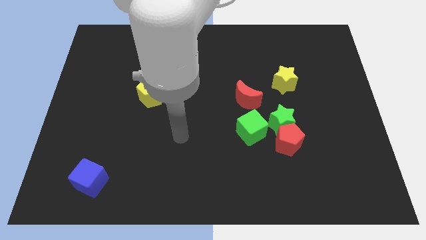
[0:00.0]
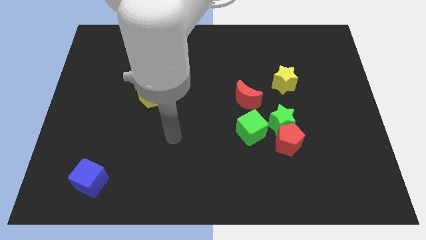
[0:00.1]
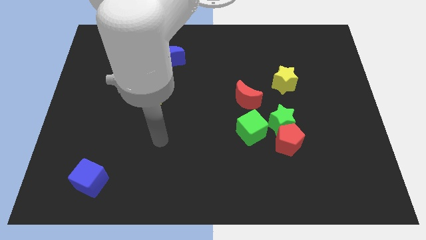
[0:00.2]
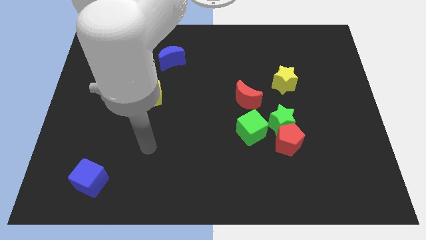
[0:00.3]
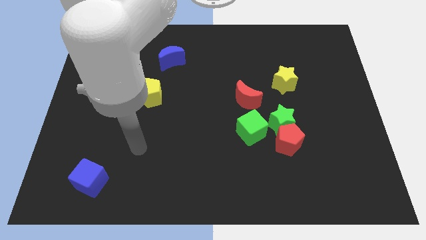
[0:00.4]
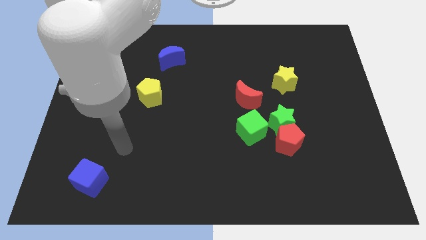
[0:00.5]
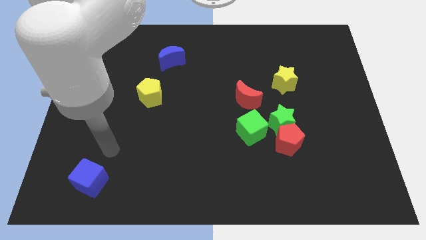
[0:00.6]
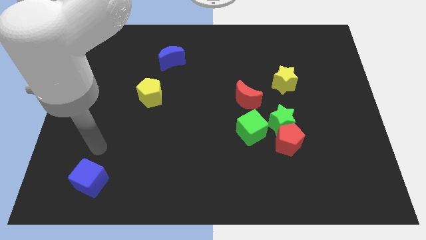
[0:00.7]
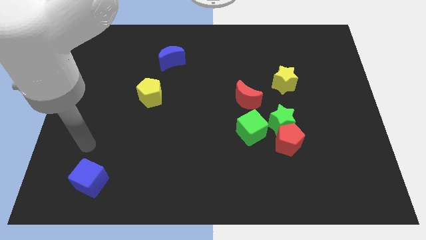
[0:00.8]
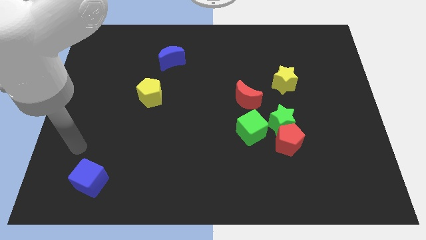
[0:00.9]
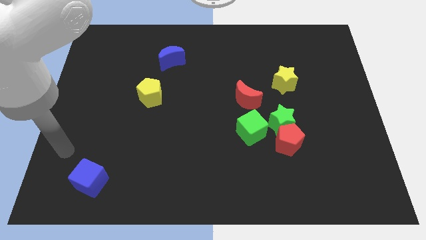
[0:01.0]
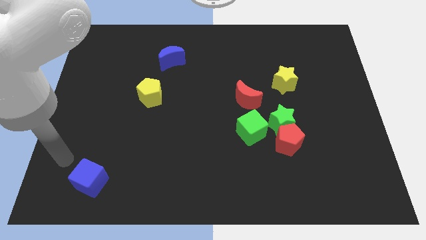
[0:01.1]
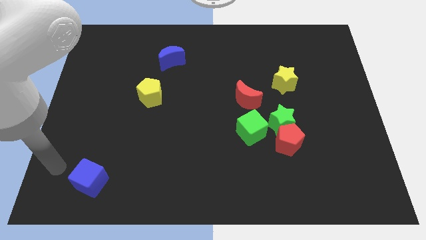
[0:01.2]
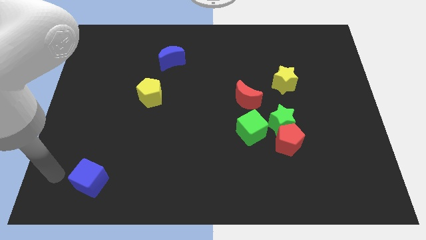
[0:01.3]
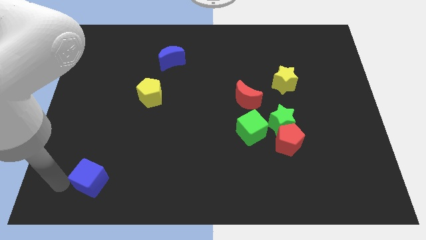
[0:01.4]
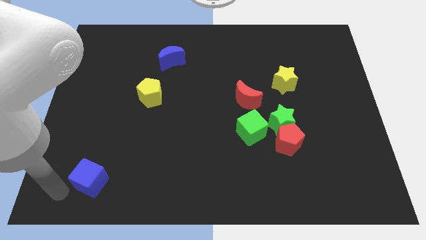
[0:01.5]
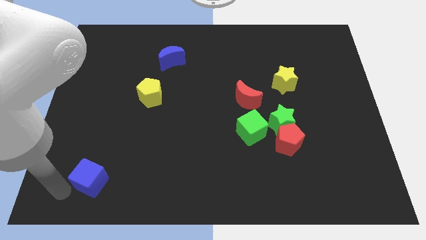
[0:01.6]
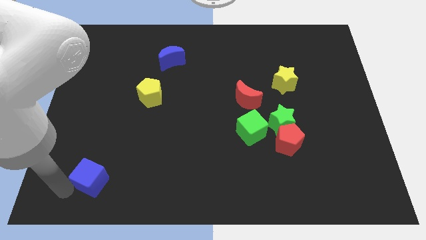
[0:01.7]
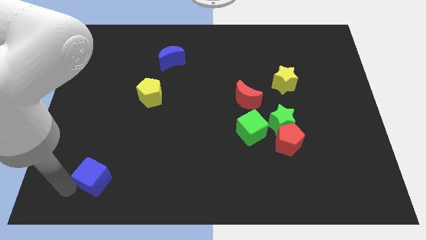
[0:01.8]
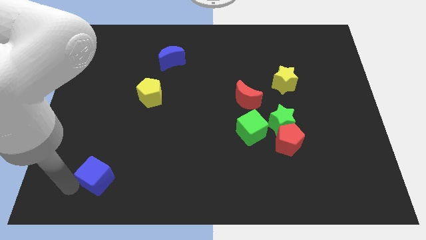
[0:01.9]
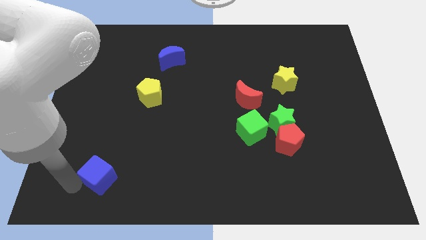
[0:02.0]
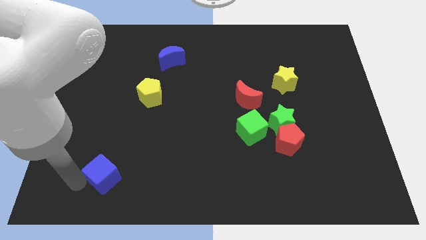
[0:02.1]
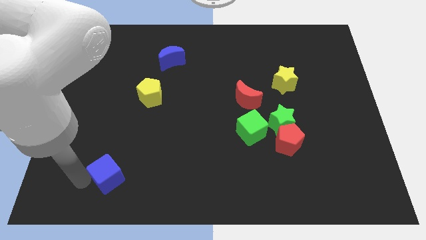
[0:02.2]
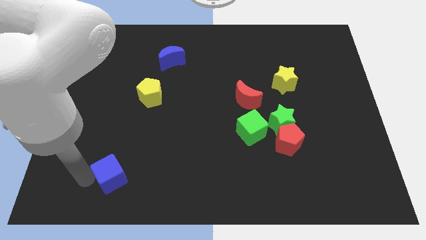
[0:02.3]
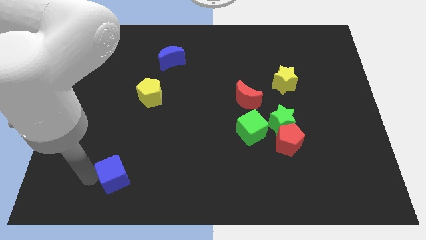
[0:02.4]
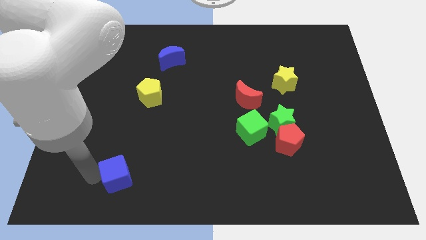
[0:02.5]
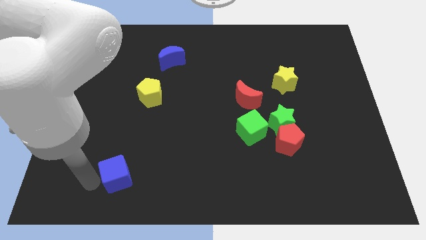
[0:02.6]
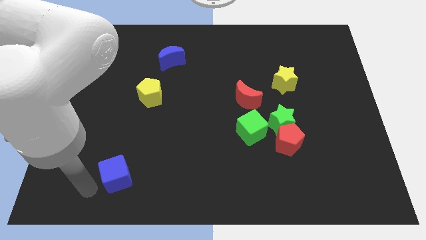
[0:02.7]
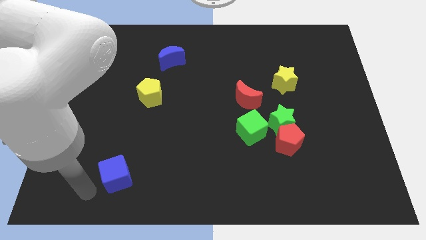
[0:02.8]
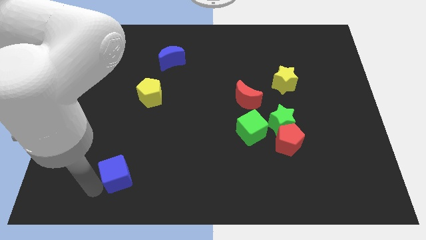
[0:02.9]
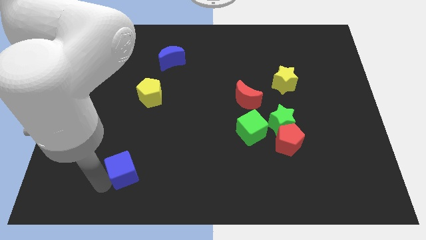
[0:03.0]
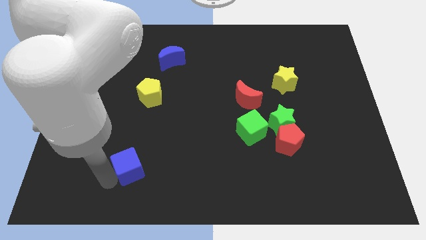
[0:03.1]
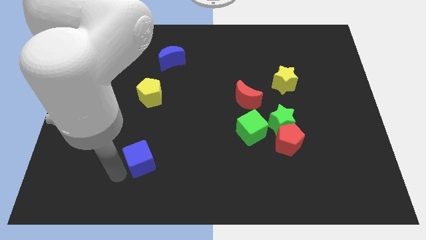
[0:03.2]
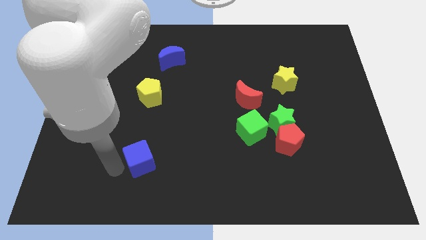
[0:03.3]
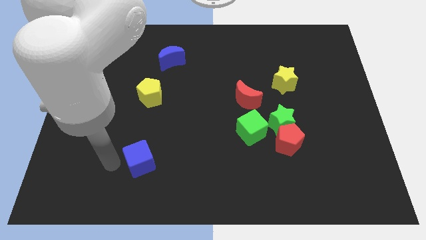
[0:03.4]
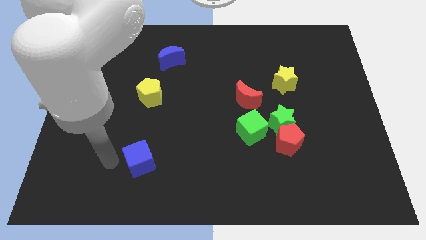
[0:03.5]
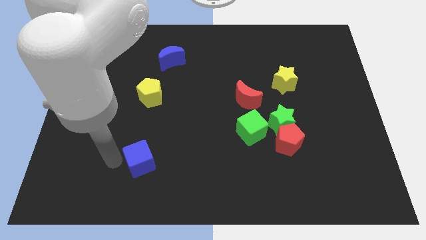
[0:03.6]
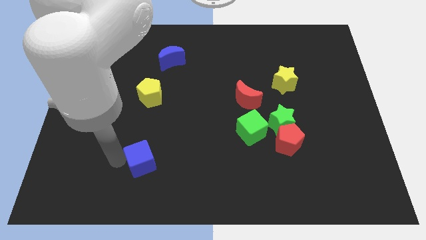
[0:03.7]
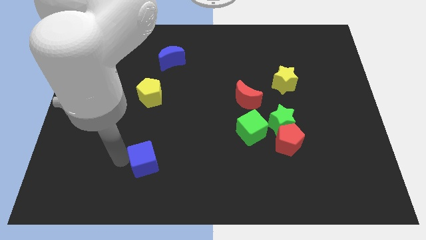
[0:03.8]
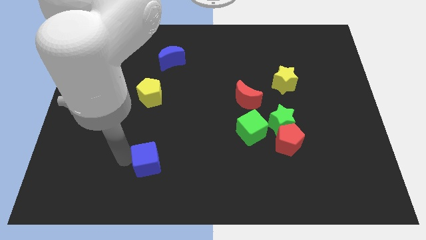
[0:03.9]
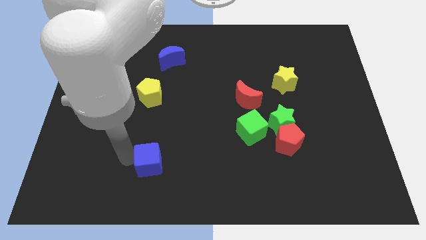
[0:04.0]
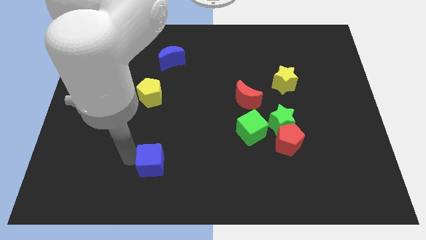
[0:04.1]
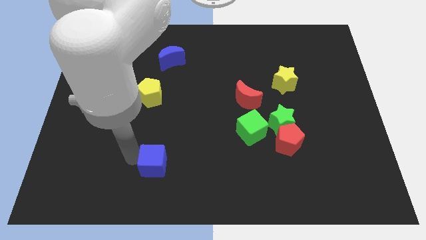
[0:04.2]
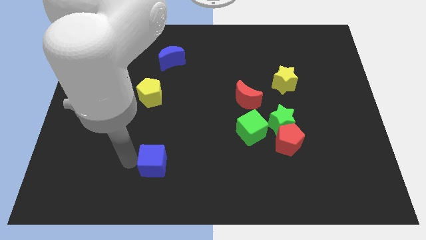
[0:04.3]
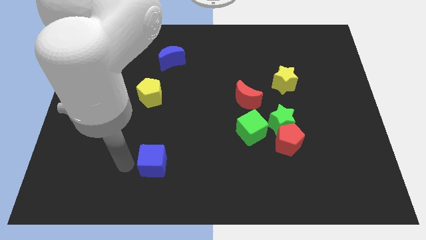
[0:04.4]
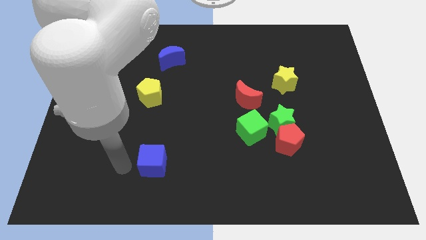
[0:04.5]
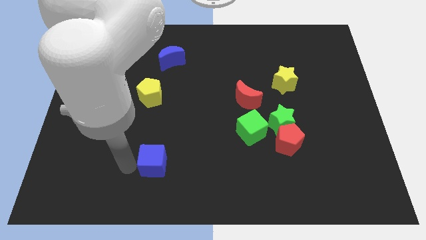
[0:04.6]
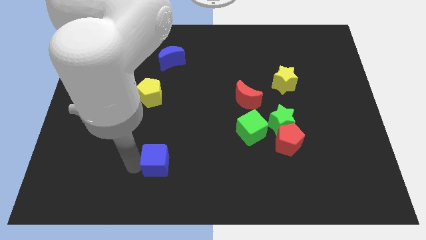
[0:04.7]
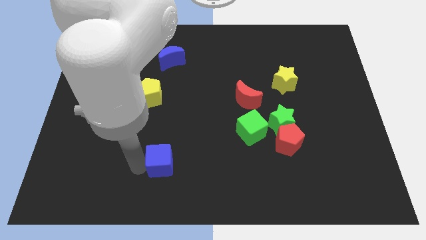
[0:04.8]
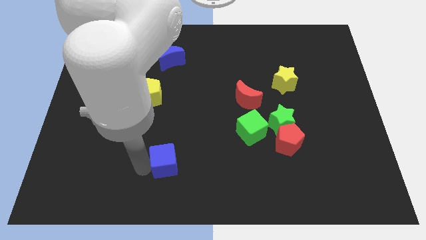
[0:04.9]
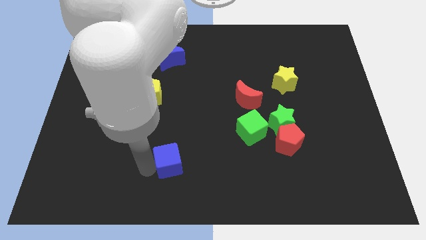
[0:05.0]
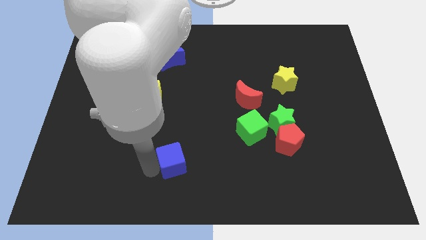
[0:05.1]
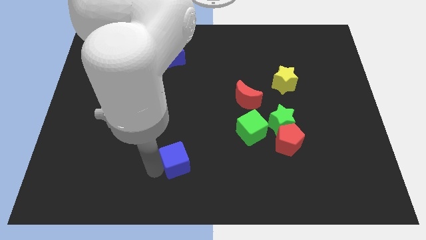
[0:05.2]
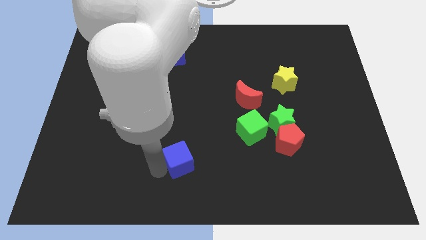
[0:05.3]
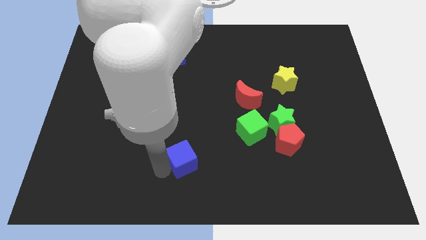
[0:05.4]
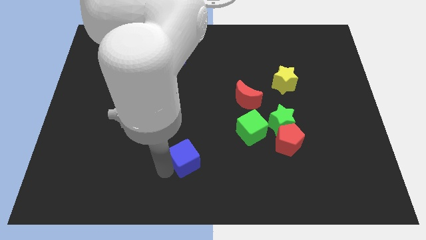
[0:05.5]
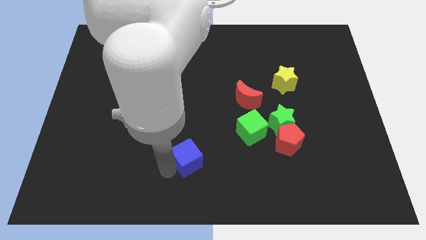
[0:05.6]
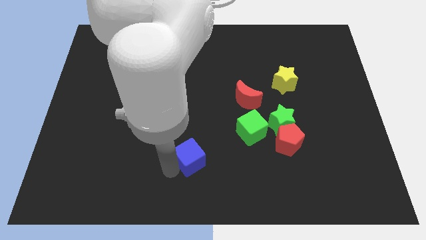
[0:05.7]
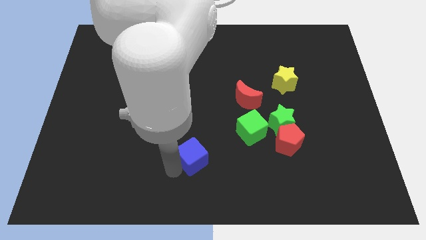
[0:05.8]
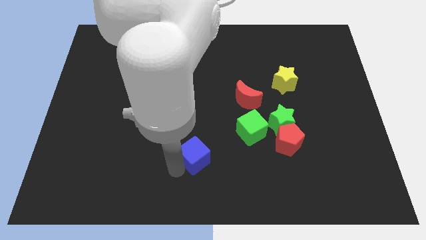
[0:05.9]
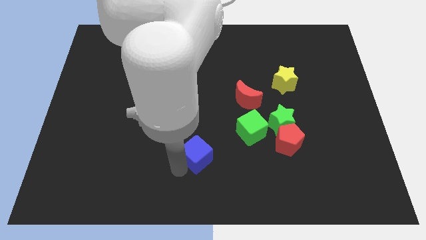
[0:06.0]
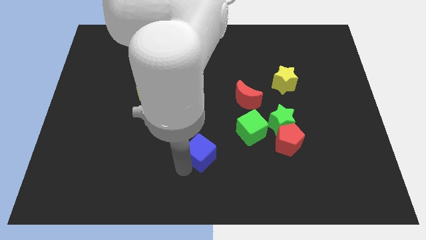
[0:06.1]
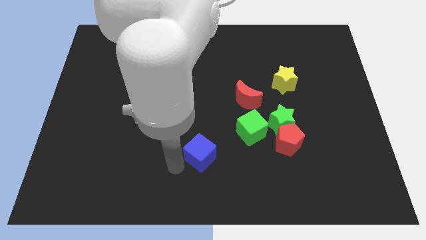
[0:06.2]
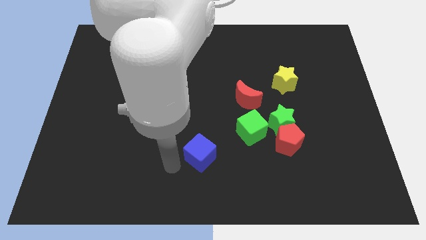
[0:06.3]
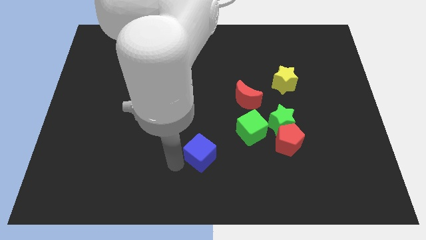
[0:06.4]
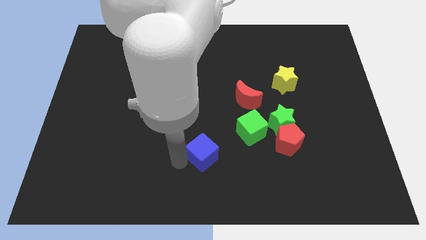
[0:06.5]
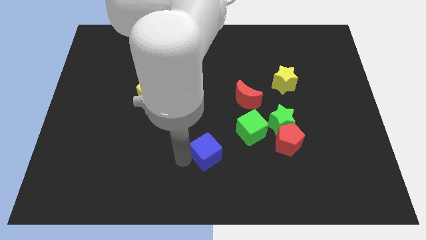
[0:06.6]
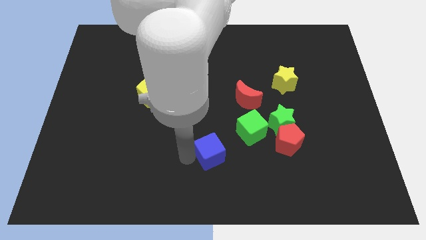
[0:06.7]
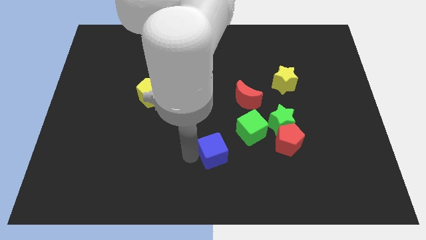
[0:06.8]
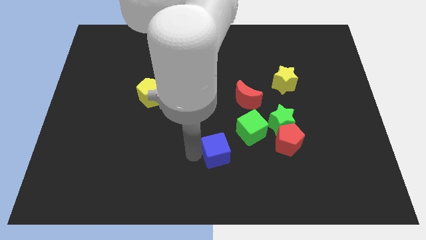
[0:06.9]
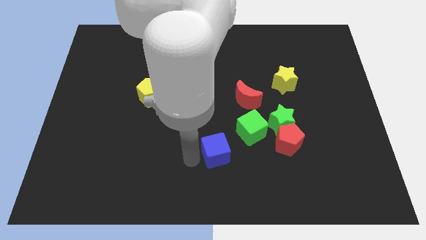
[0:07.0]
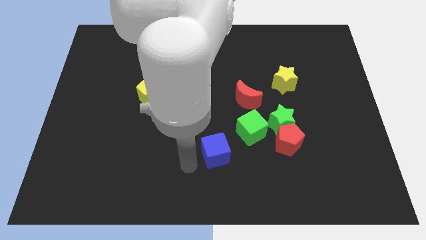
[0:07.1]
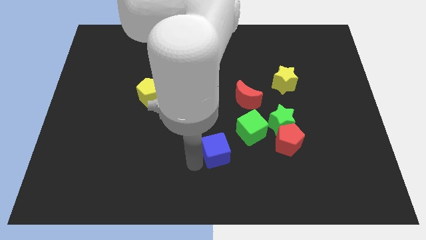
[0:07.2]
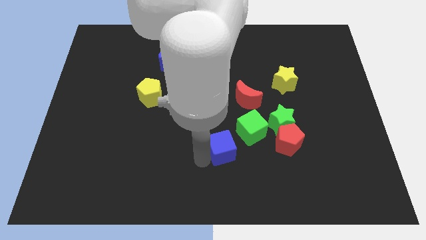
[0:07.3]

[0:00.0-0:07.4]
move the blue cube just left of the red pentagon
